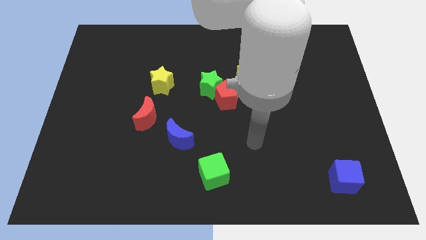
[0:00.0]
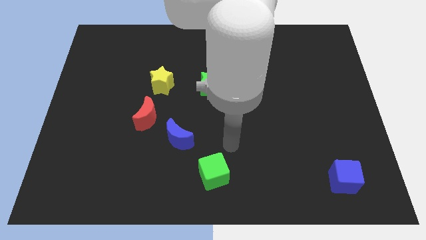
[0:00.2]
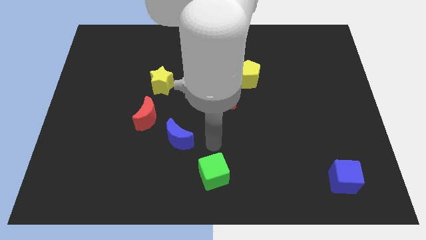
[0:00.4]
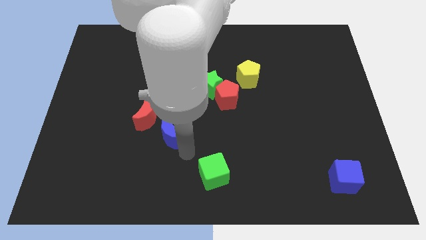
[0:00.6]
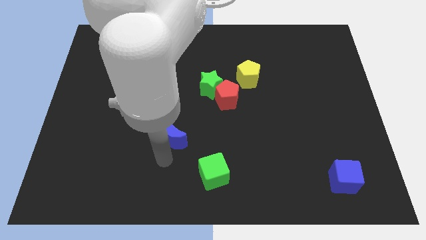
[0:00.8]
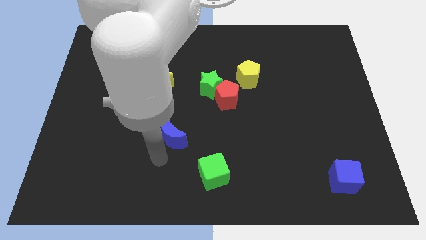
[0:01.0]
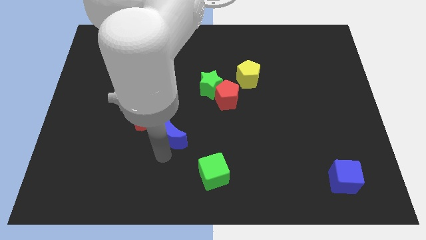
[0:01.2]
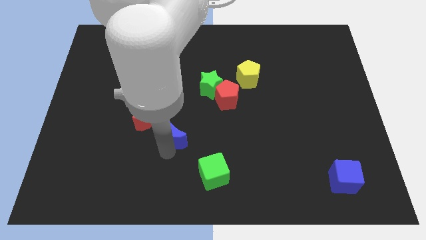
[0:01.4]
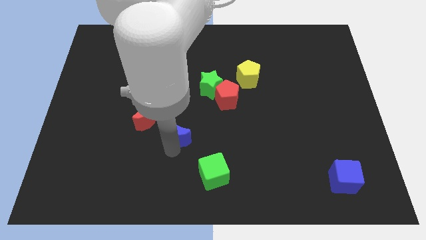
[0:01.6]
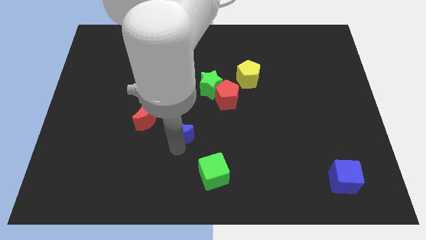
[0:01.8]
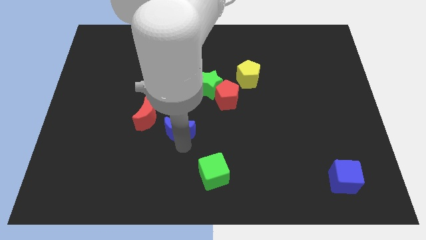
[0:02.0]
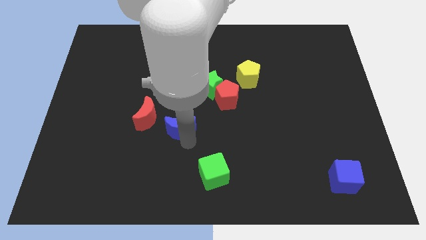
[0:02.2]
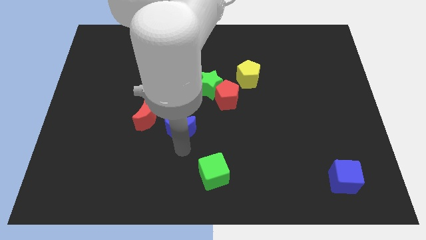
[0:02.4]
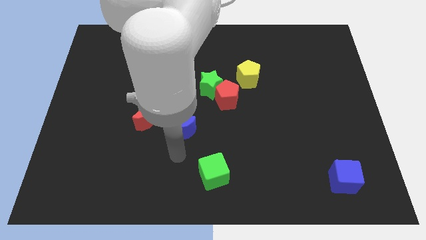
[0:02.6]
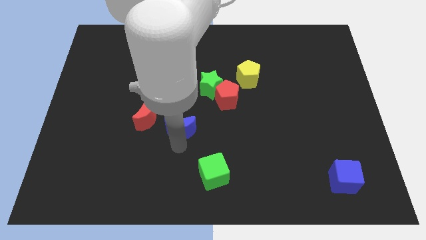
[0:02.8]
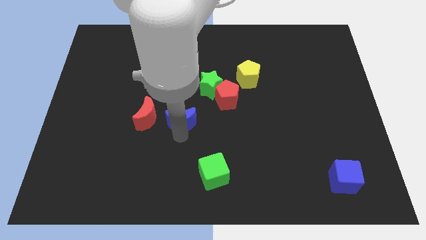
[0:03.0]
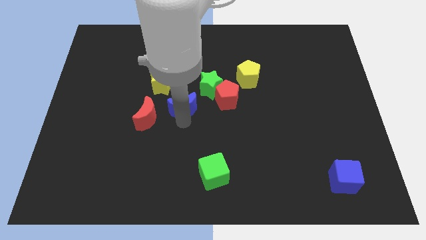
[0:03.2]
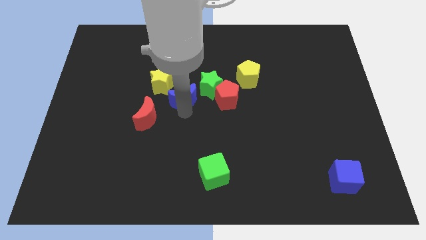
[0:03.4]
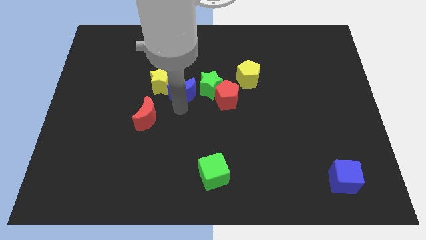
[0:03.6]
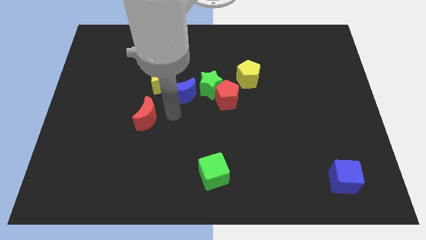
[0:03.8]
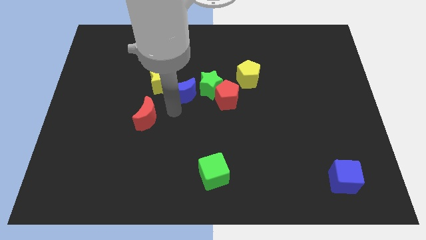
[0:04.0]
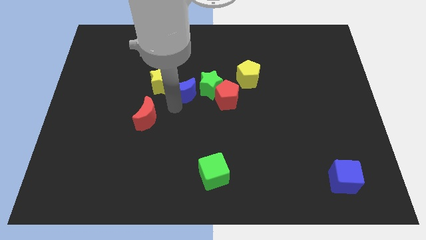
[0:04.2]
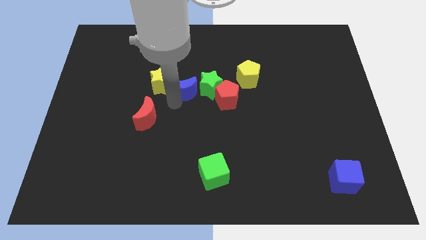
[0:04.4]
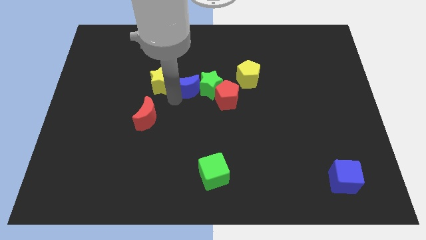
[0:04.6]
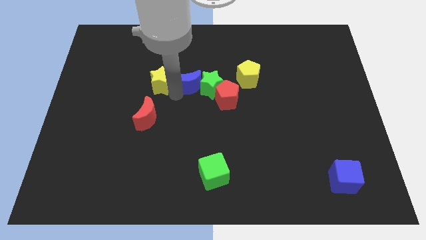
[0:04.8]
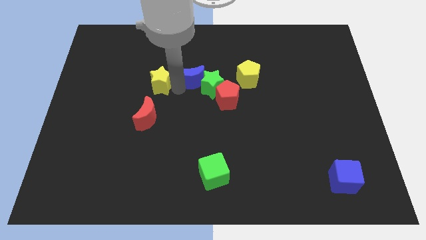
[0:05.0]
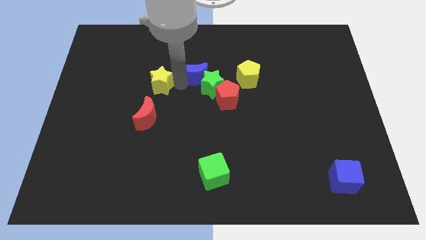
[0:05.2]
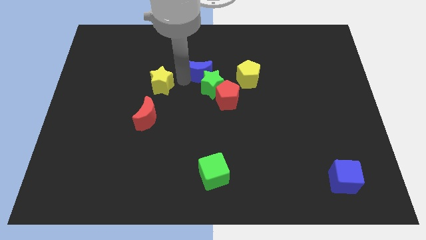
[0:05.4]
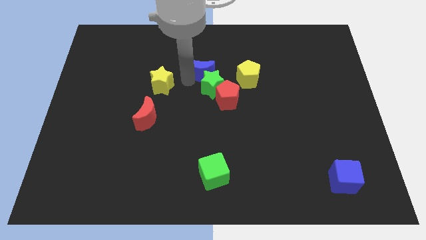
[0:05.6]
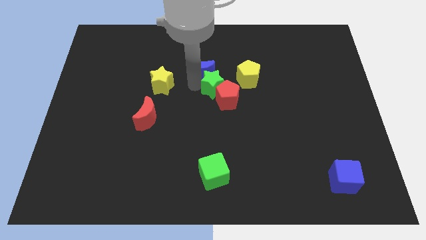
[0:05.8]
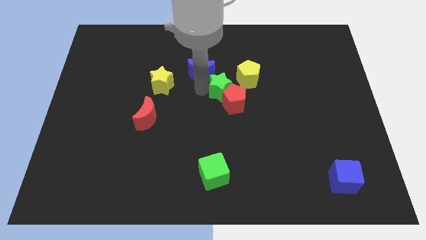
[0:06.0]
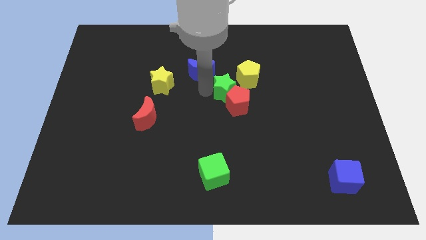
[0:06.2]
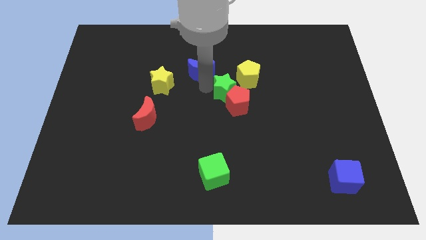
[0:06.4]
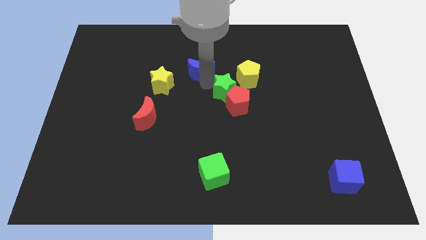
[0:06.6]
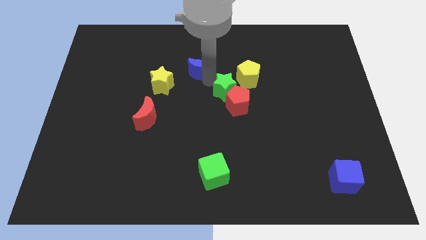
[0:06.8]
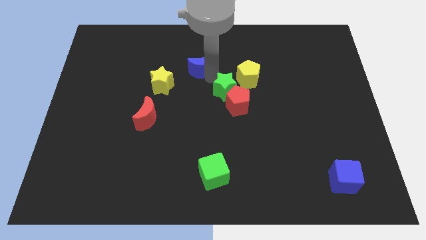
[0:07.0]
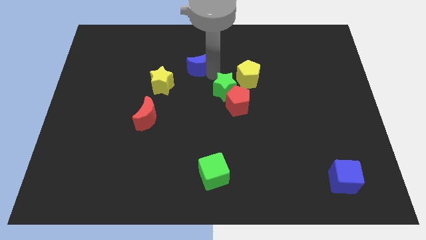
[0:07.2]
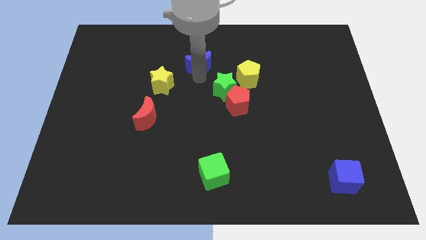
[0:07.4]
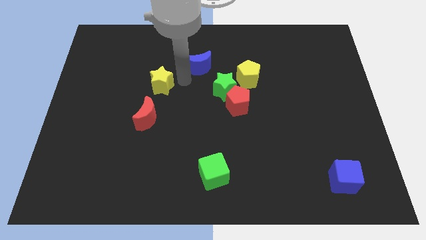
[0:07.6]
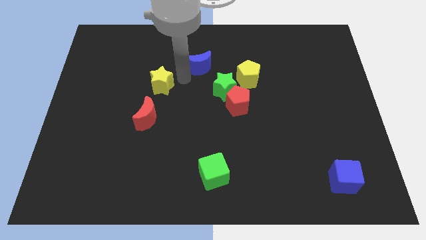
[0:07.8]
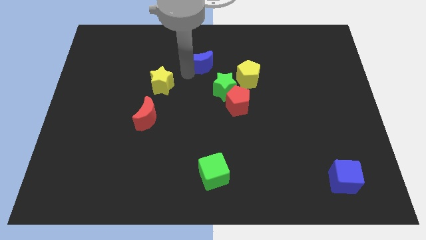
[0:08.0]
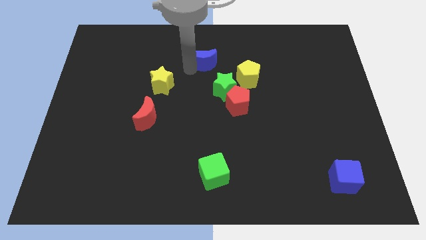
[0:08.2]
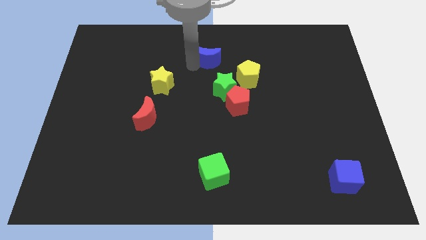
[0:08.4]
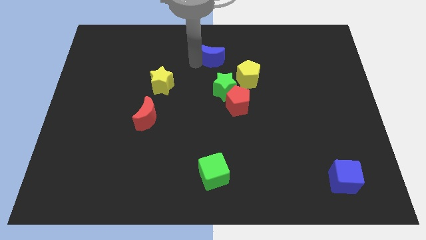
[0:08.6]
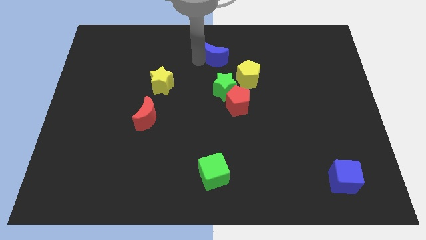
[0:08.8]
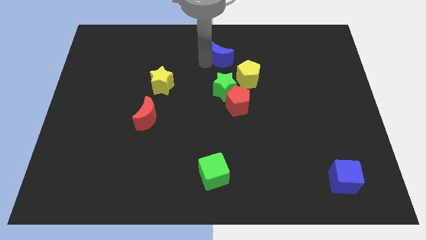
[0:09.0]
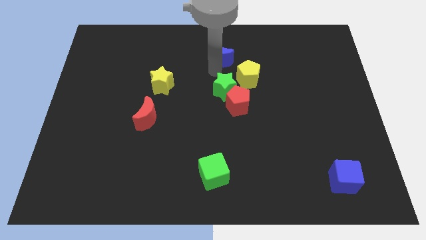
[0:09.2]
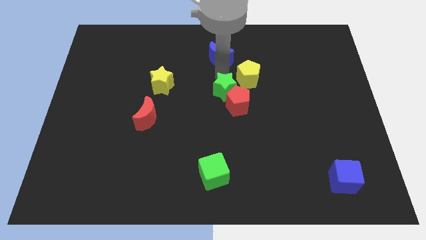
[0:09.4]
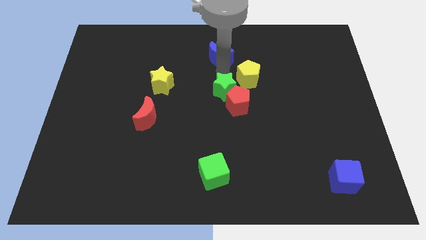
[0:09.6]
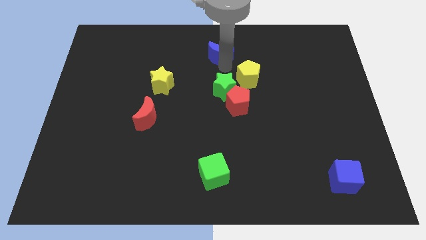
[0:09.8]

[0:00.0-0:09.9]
put the blue moon to the towards your base

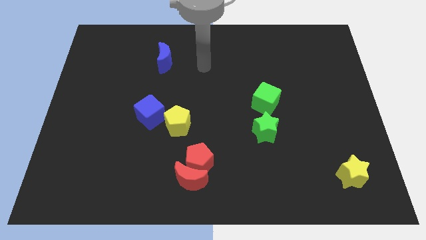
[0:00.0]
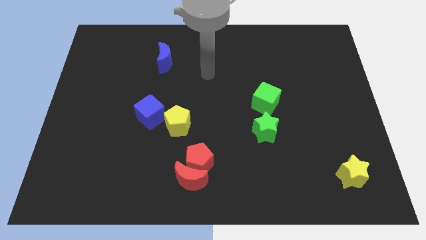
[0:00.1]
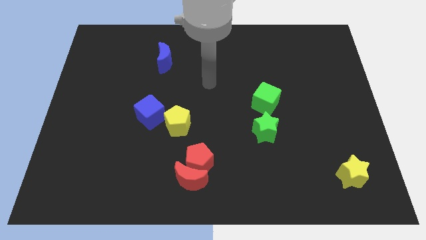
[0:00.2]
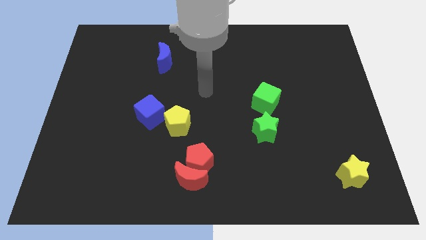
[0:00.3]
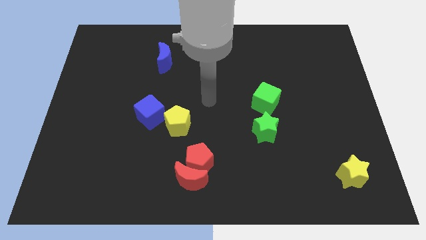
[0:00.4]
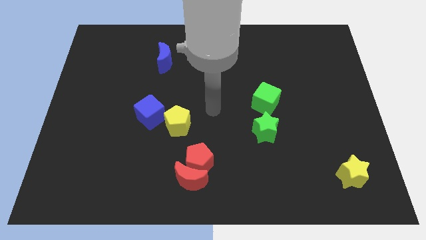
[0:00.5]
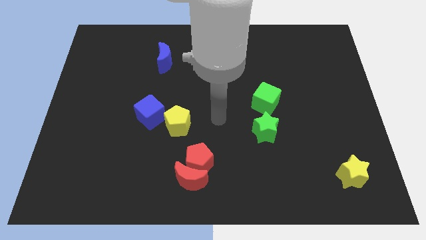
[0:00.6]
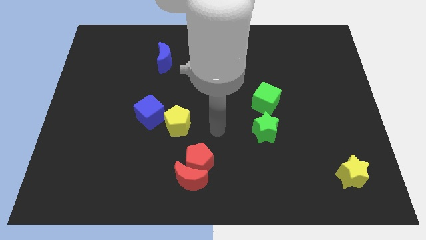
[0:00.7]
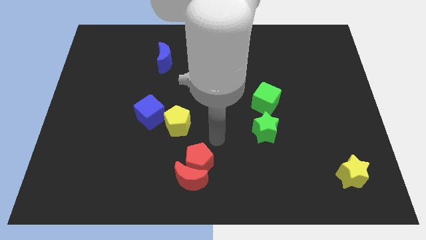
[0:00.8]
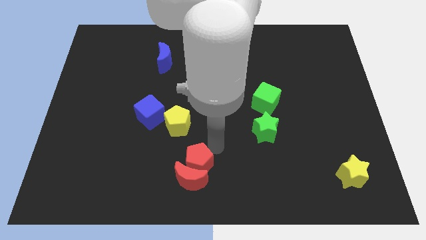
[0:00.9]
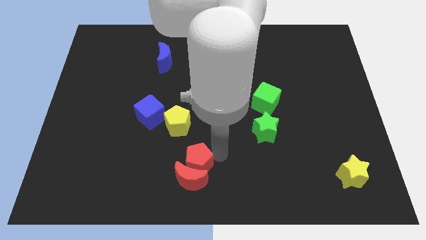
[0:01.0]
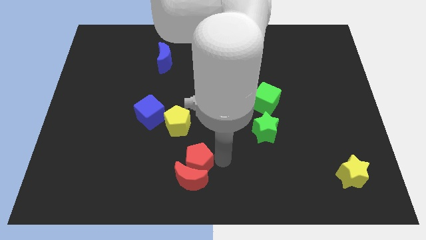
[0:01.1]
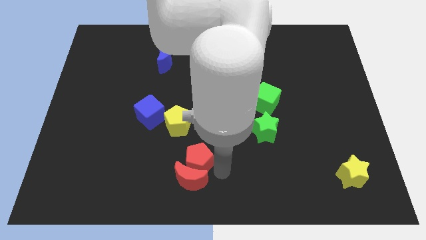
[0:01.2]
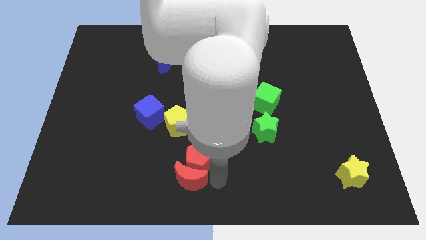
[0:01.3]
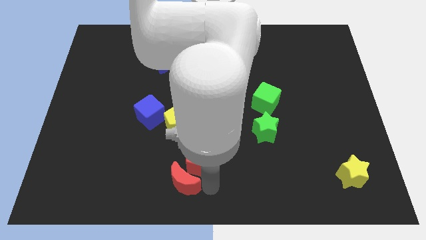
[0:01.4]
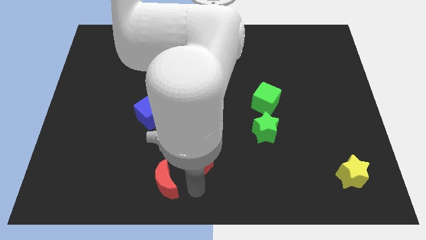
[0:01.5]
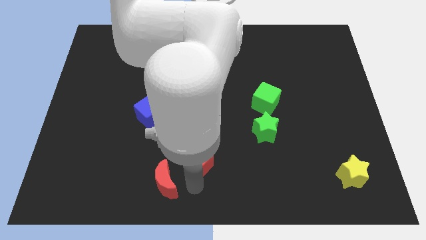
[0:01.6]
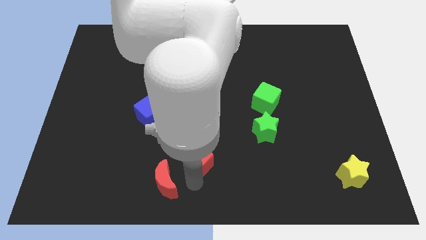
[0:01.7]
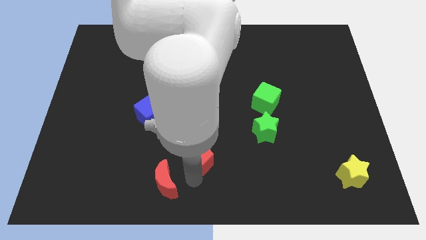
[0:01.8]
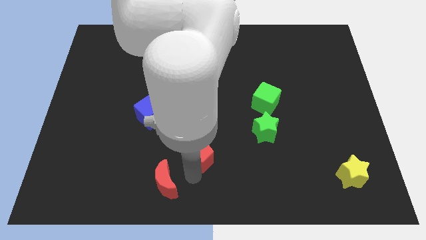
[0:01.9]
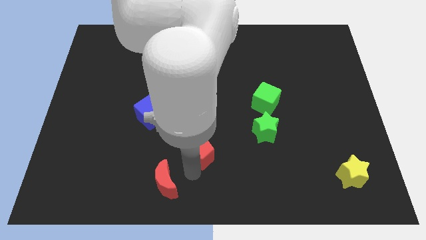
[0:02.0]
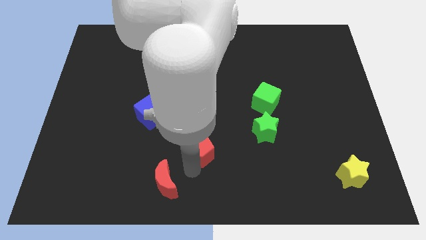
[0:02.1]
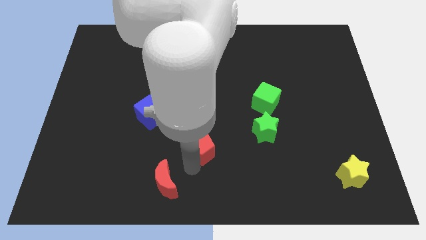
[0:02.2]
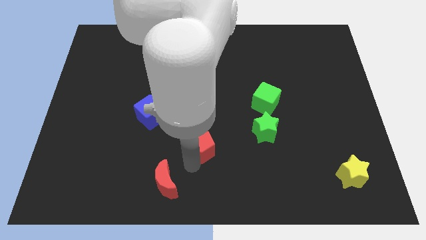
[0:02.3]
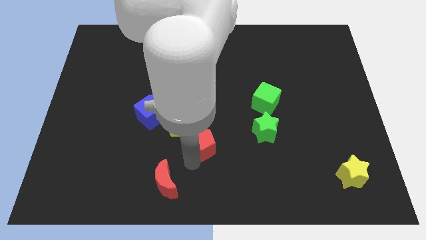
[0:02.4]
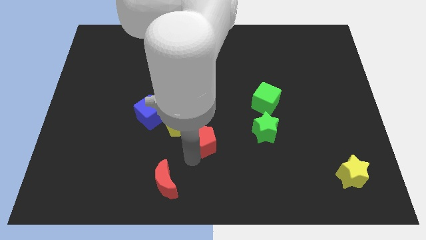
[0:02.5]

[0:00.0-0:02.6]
put the red pentagon to the center of the board
